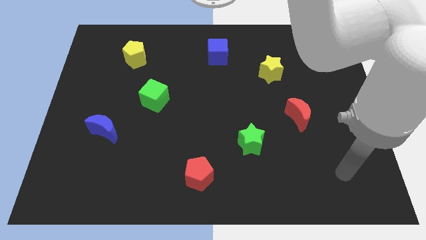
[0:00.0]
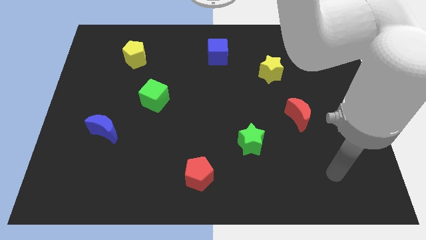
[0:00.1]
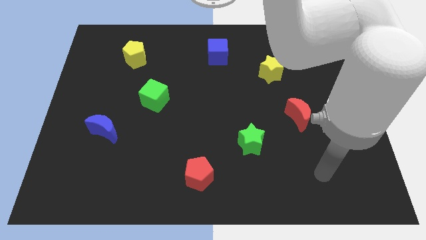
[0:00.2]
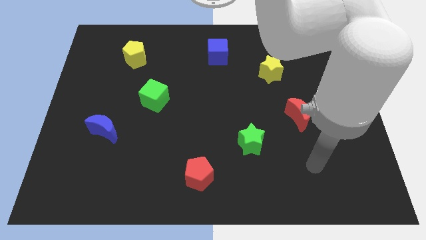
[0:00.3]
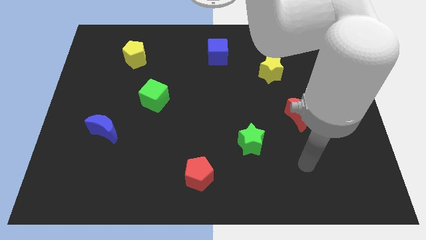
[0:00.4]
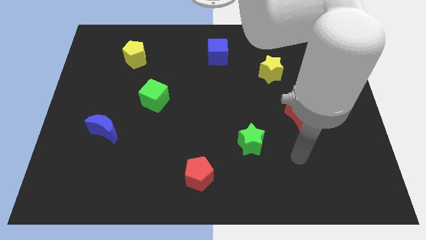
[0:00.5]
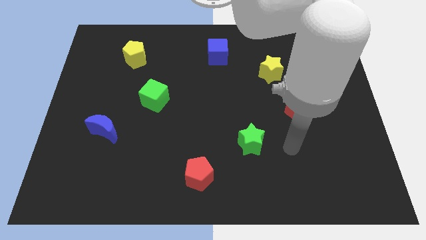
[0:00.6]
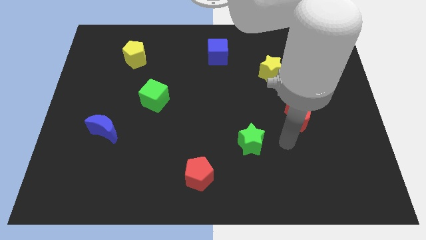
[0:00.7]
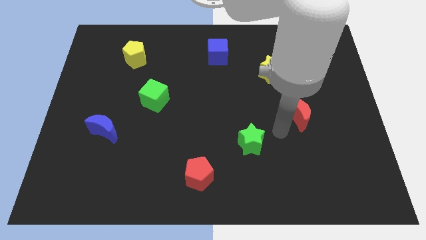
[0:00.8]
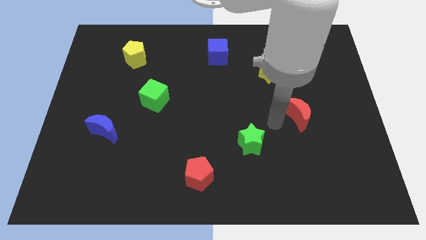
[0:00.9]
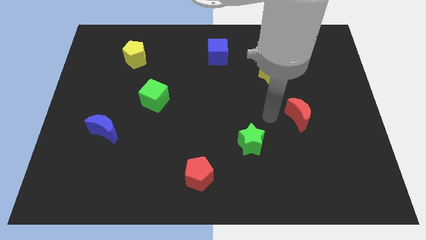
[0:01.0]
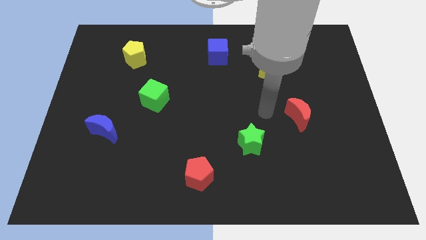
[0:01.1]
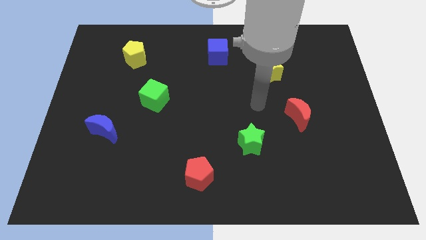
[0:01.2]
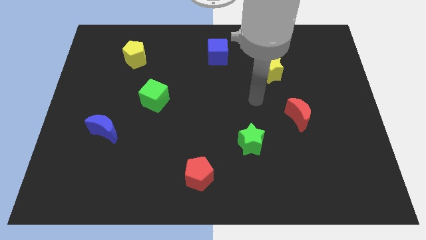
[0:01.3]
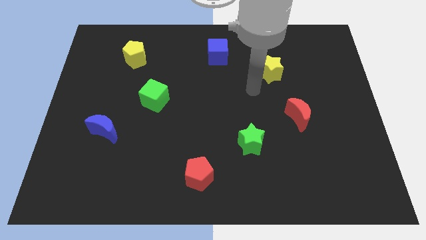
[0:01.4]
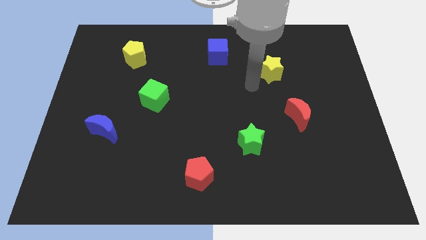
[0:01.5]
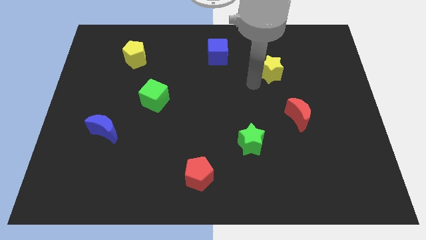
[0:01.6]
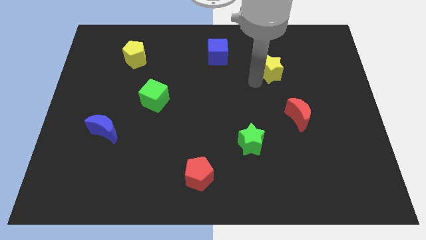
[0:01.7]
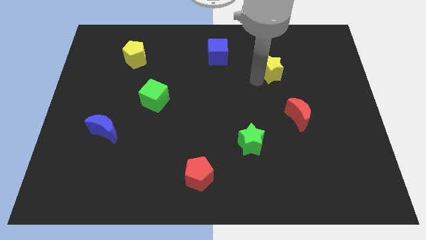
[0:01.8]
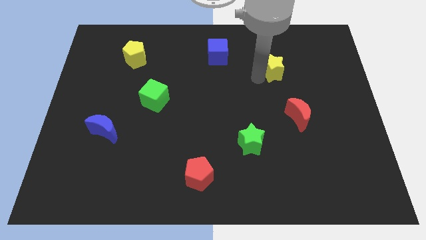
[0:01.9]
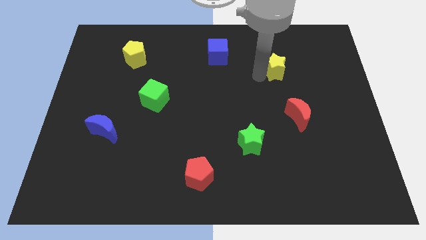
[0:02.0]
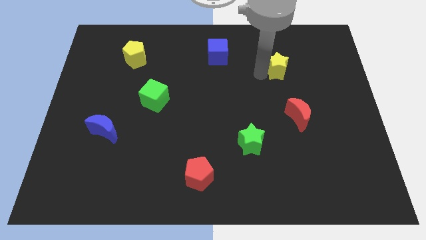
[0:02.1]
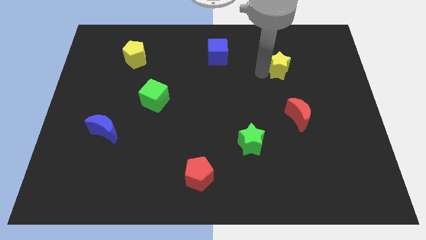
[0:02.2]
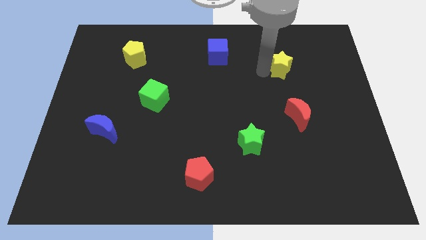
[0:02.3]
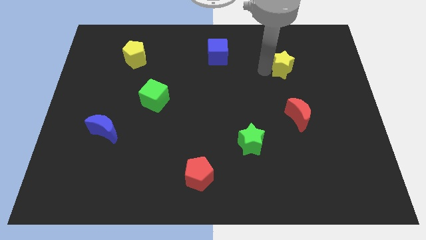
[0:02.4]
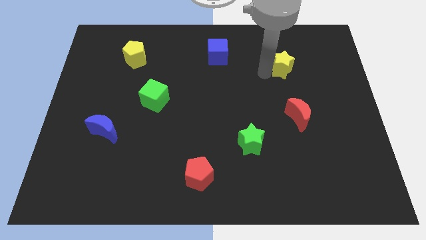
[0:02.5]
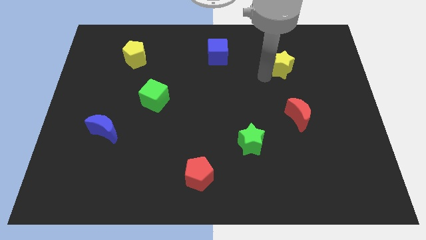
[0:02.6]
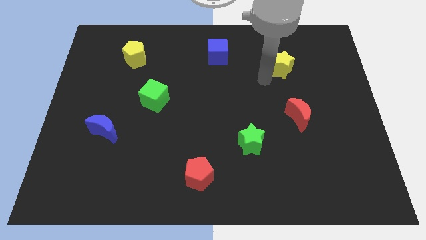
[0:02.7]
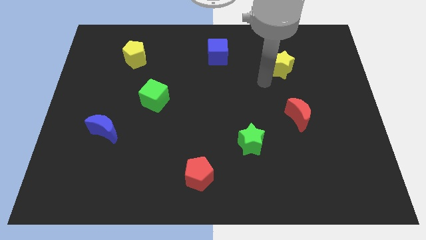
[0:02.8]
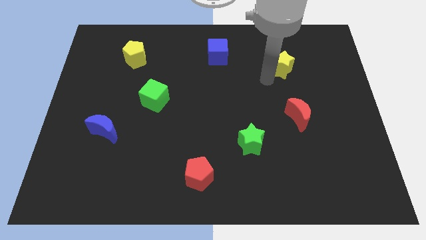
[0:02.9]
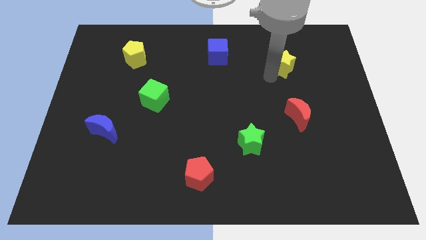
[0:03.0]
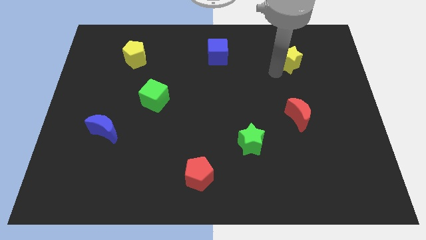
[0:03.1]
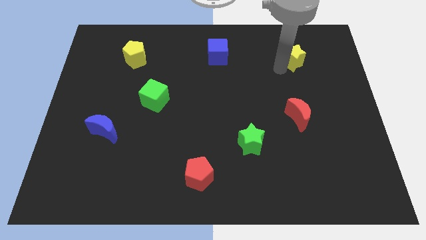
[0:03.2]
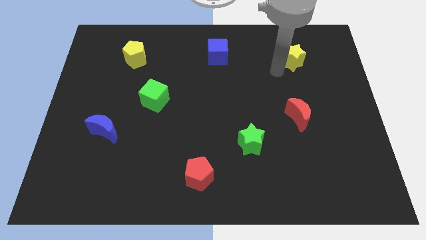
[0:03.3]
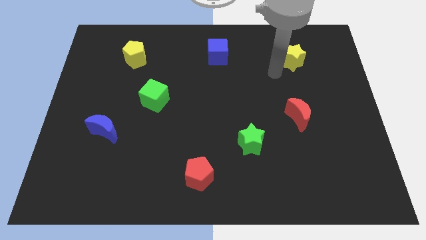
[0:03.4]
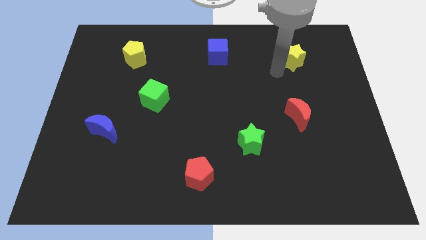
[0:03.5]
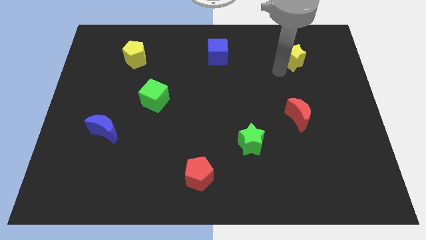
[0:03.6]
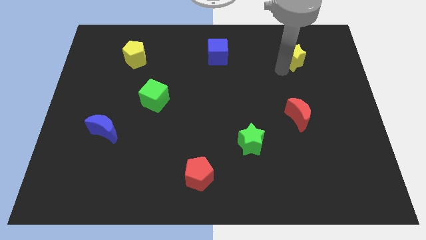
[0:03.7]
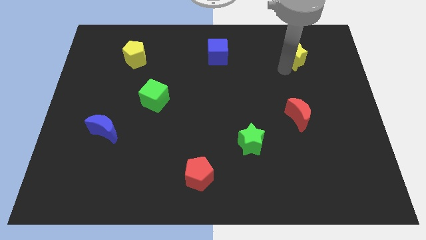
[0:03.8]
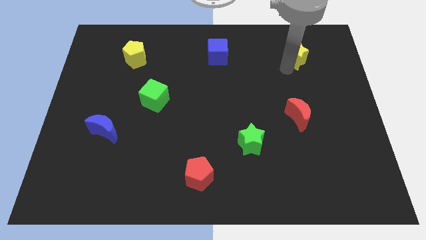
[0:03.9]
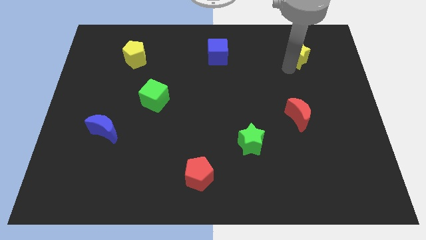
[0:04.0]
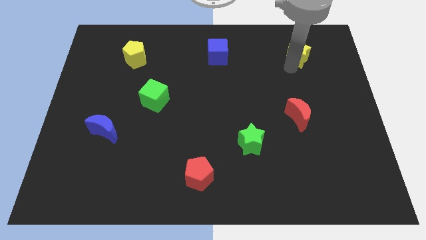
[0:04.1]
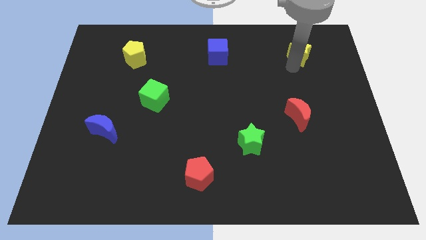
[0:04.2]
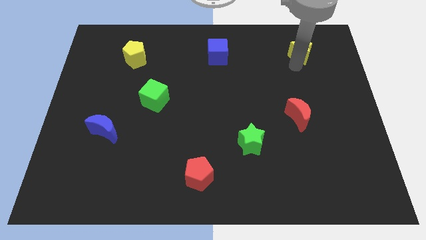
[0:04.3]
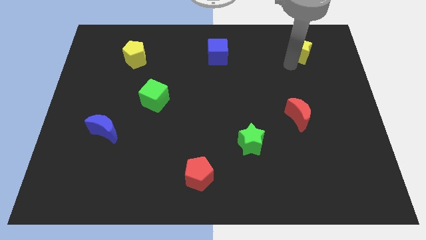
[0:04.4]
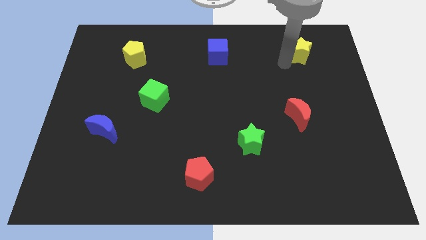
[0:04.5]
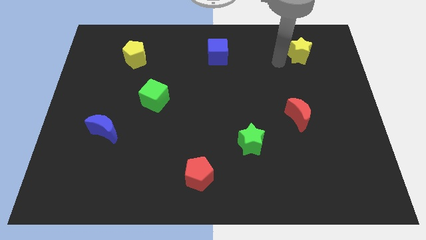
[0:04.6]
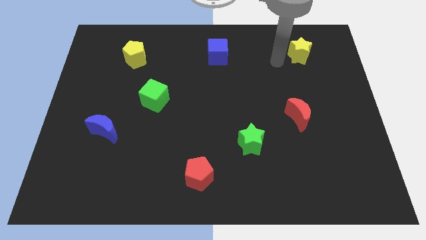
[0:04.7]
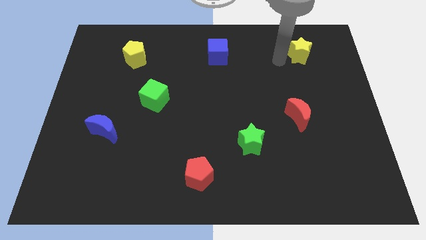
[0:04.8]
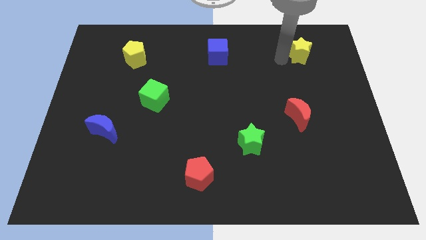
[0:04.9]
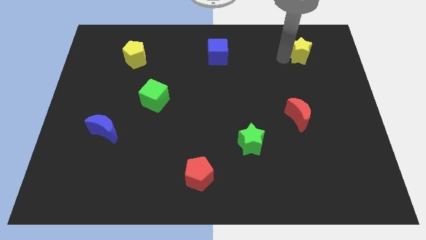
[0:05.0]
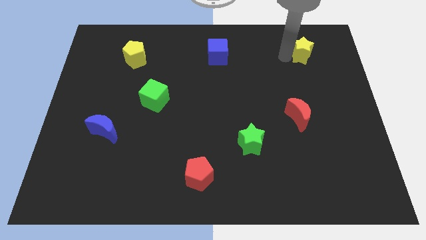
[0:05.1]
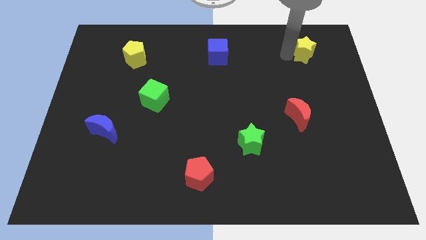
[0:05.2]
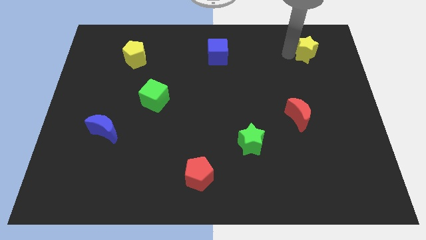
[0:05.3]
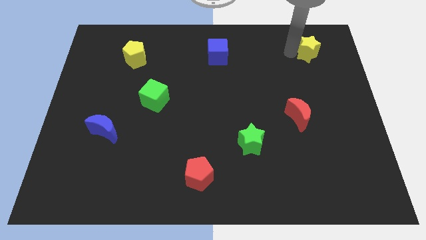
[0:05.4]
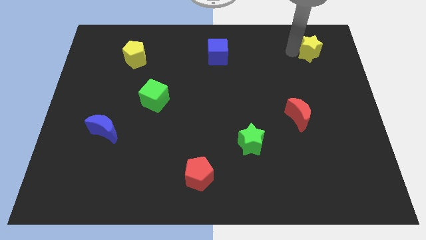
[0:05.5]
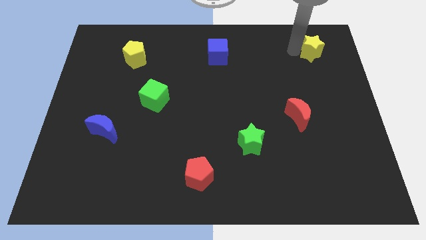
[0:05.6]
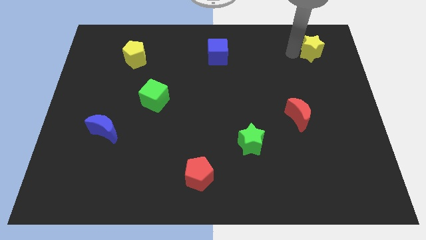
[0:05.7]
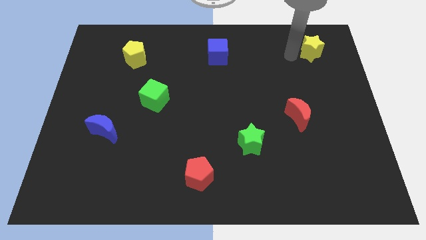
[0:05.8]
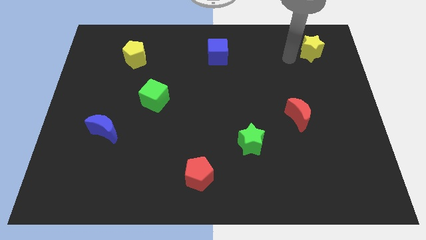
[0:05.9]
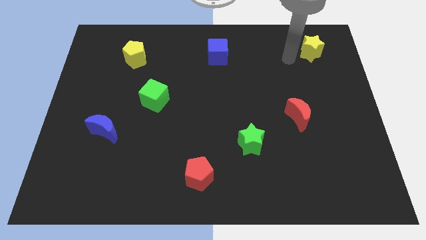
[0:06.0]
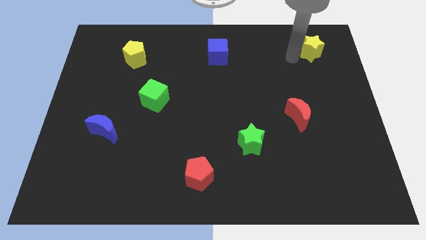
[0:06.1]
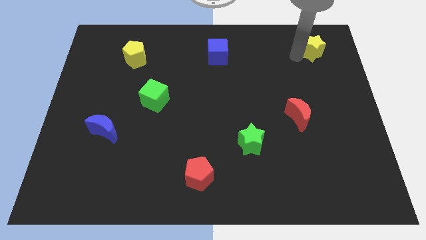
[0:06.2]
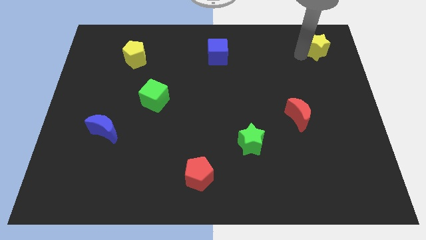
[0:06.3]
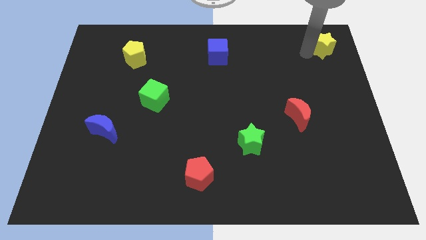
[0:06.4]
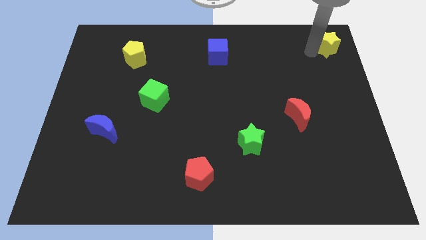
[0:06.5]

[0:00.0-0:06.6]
push the yellow star to the top right

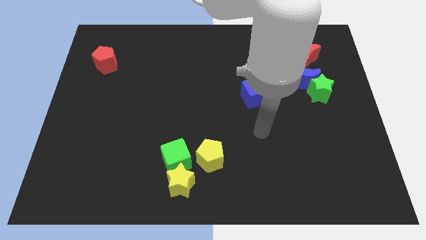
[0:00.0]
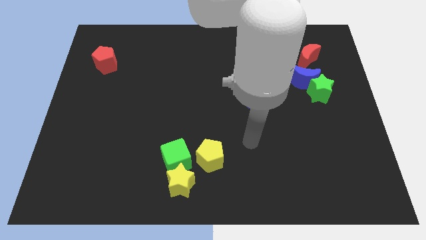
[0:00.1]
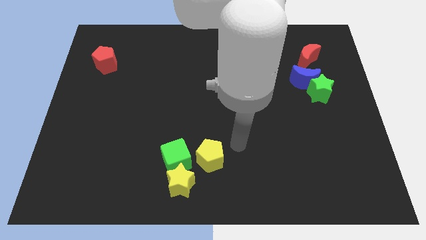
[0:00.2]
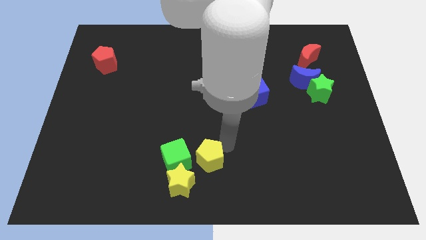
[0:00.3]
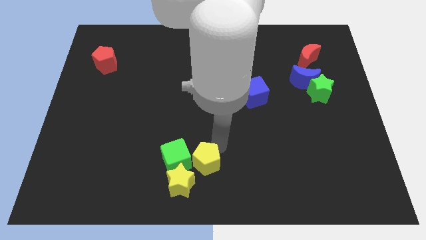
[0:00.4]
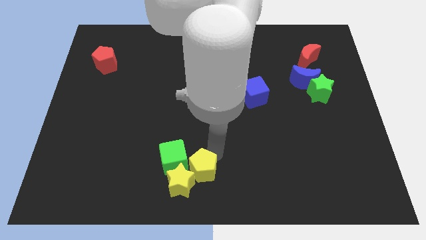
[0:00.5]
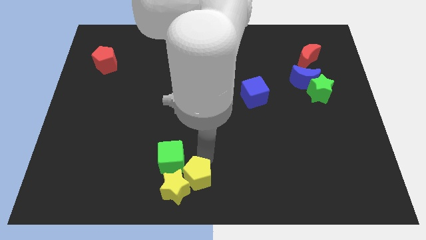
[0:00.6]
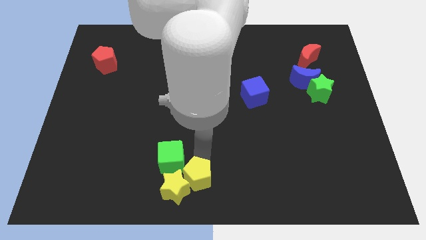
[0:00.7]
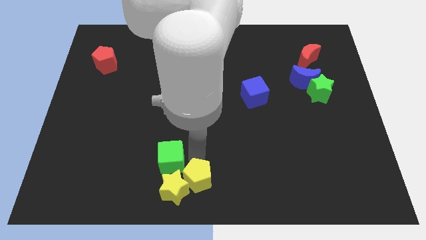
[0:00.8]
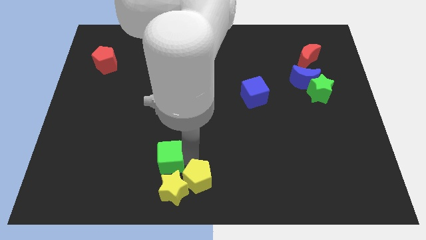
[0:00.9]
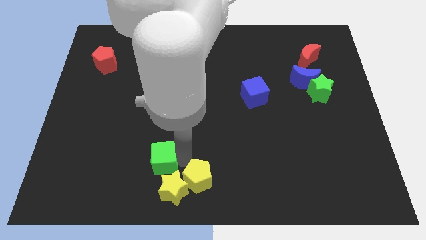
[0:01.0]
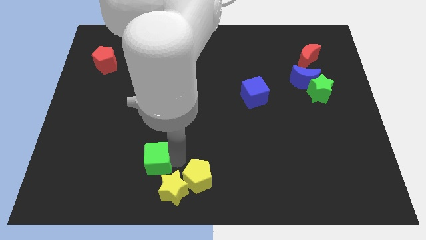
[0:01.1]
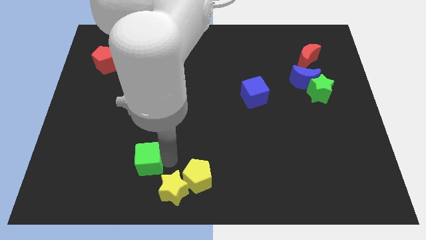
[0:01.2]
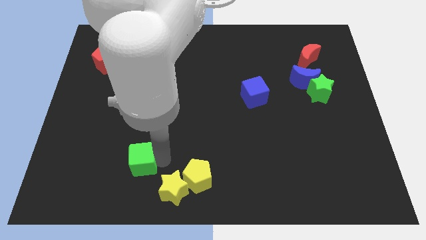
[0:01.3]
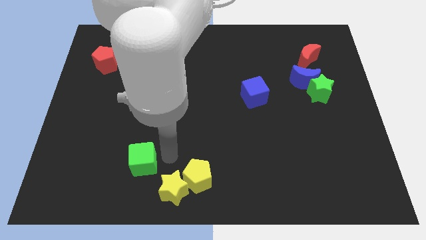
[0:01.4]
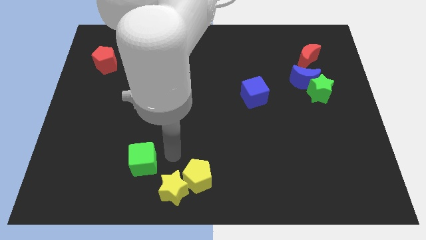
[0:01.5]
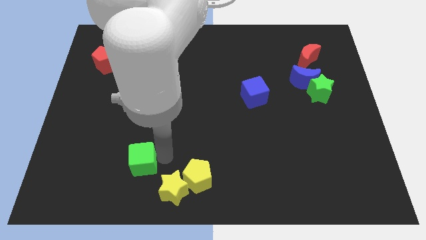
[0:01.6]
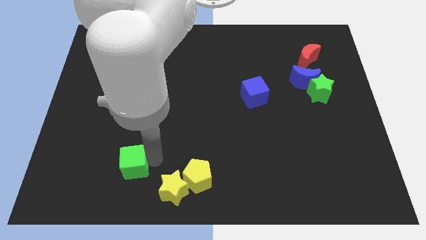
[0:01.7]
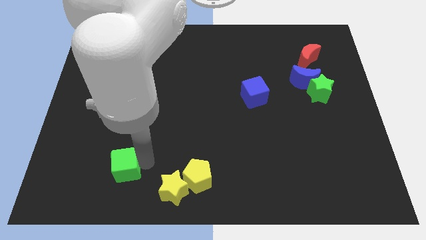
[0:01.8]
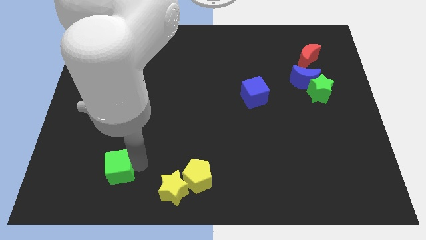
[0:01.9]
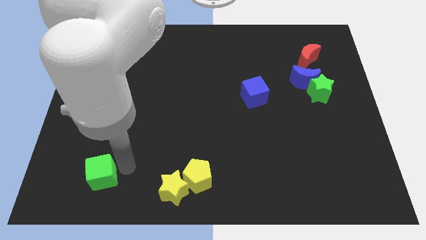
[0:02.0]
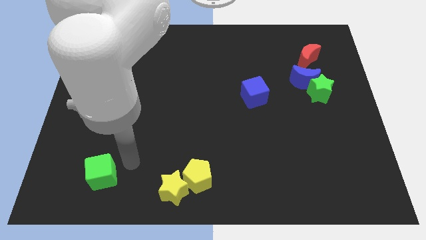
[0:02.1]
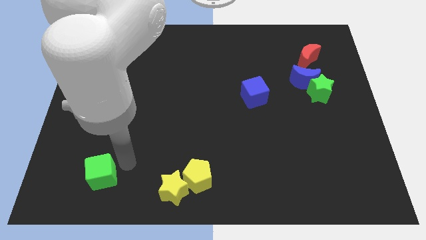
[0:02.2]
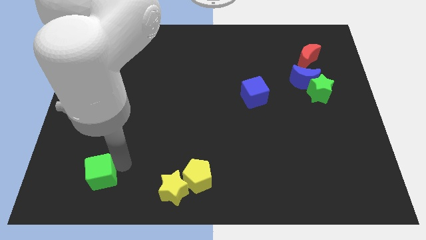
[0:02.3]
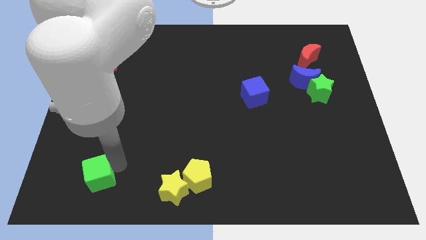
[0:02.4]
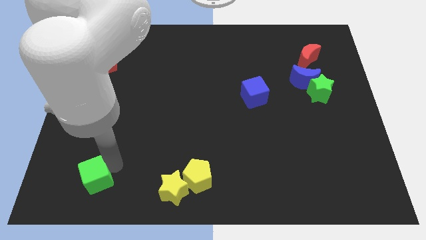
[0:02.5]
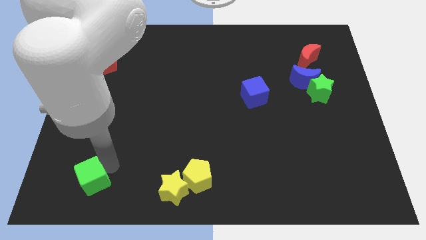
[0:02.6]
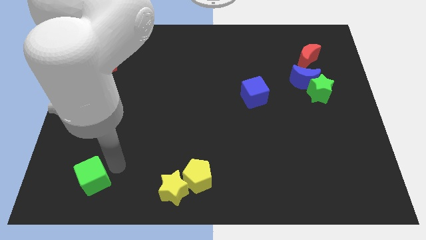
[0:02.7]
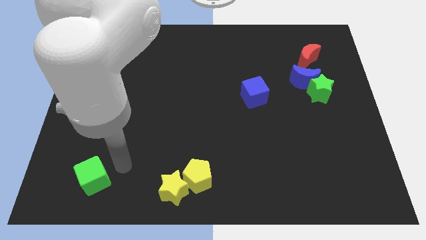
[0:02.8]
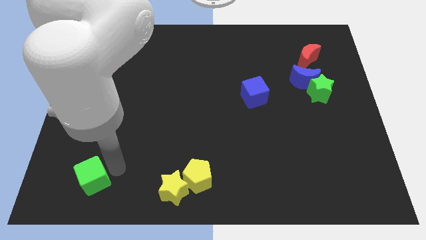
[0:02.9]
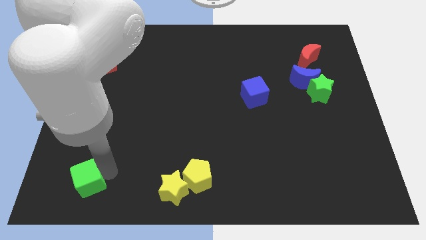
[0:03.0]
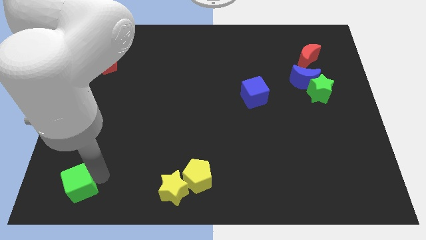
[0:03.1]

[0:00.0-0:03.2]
move the green cube to the bottom left
